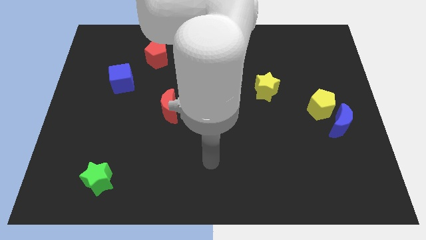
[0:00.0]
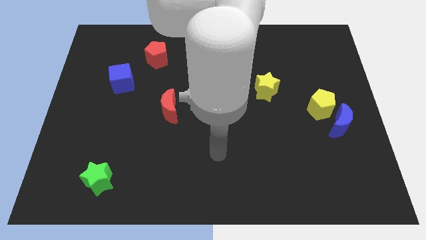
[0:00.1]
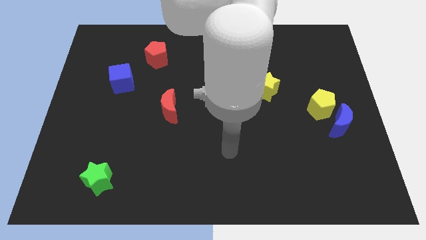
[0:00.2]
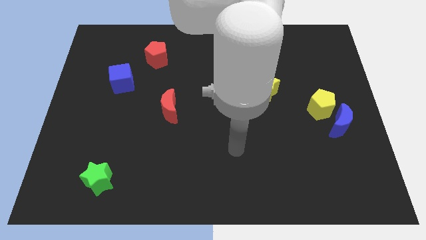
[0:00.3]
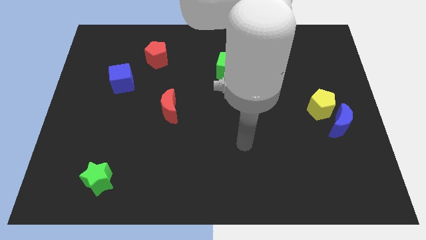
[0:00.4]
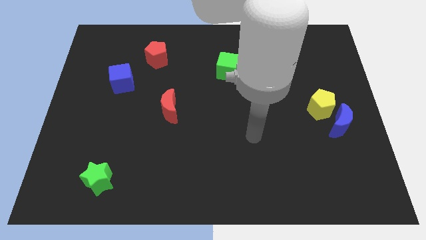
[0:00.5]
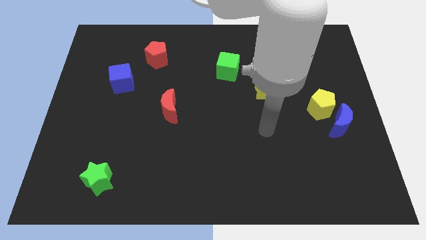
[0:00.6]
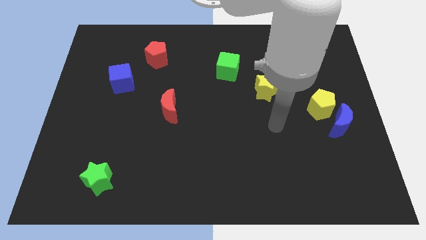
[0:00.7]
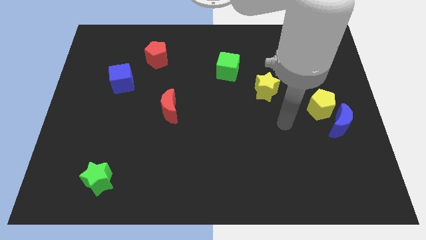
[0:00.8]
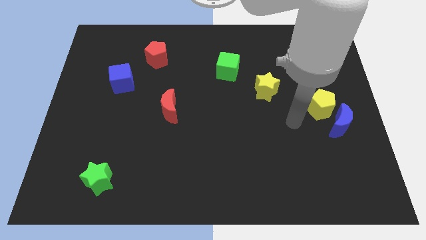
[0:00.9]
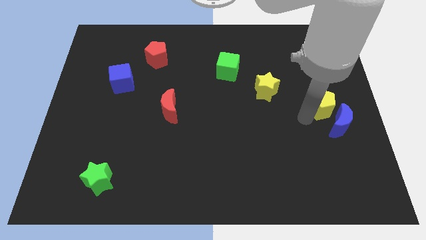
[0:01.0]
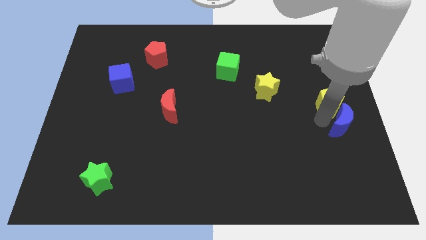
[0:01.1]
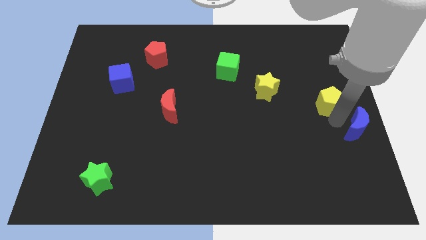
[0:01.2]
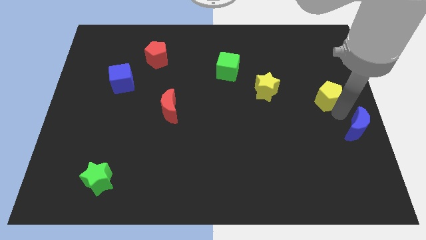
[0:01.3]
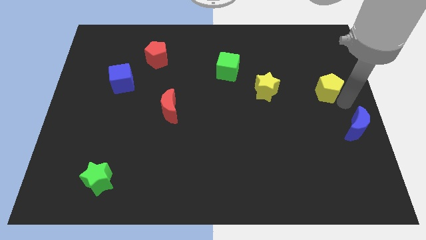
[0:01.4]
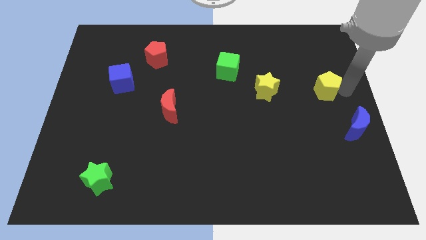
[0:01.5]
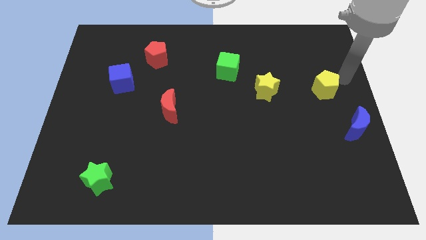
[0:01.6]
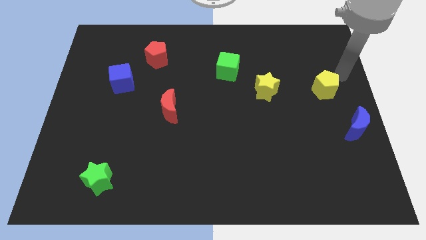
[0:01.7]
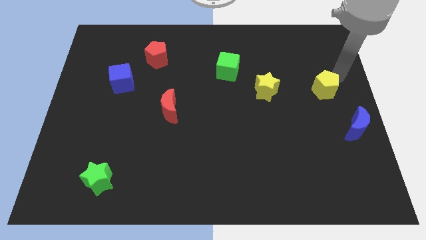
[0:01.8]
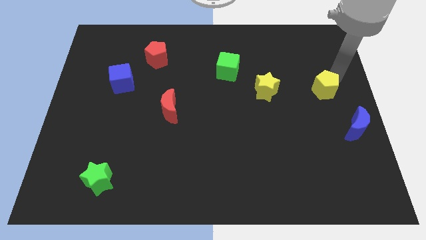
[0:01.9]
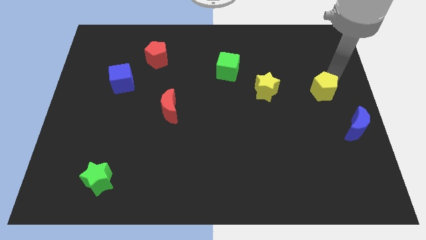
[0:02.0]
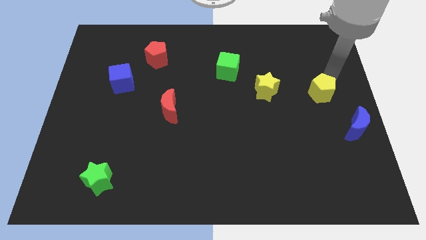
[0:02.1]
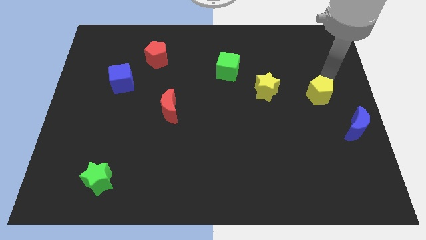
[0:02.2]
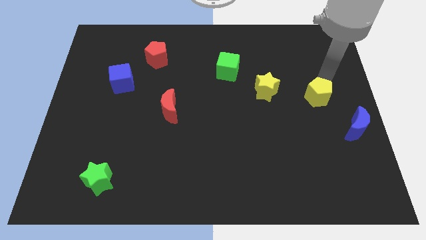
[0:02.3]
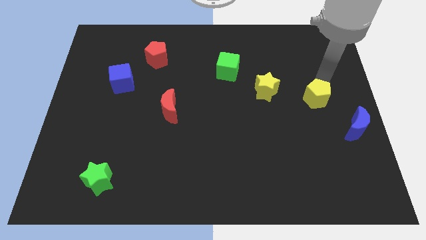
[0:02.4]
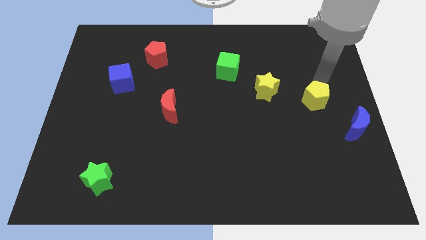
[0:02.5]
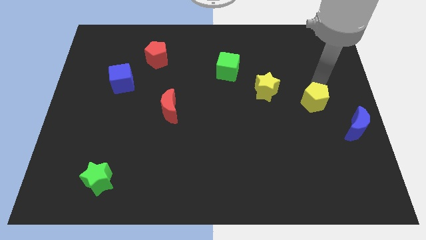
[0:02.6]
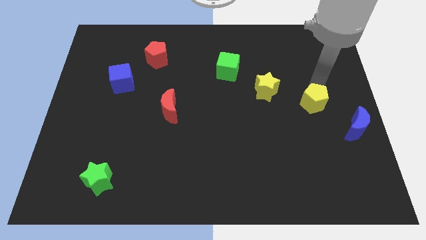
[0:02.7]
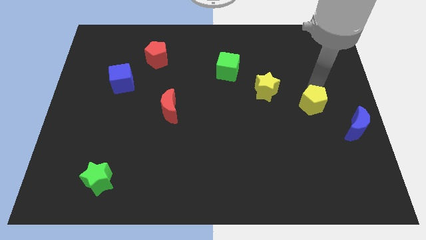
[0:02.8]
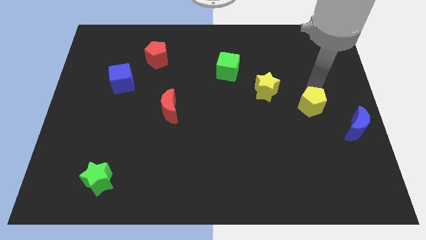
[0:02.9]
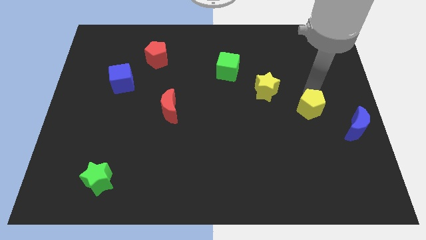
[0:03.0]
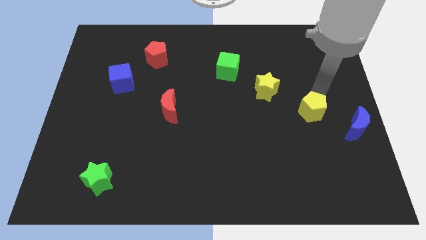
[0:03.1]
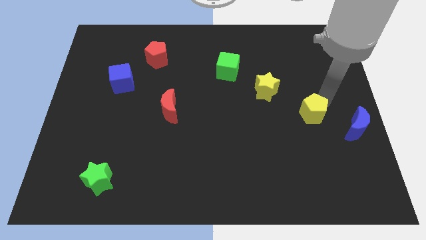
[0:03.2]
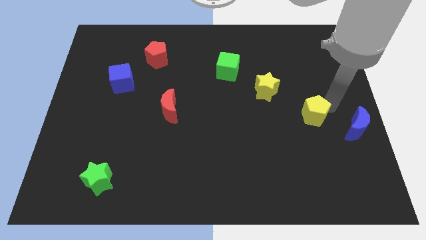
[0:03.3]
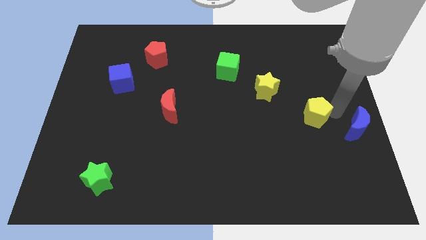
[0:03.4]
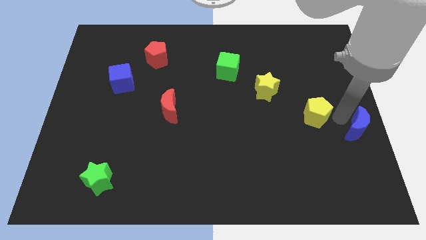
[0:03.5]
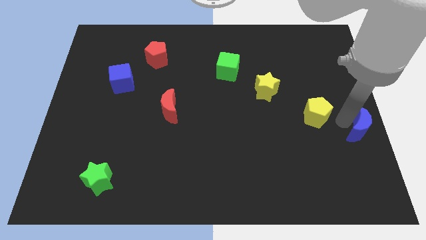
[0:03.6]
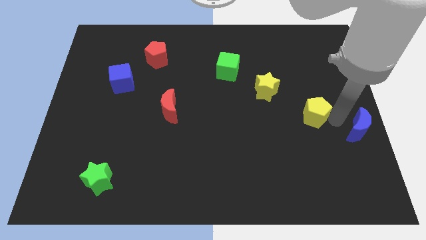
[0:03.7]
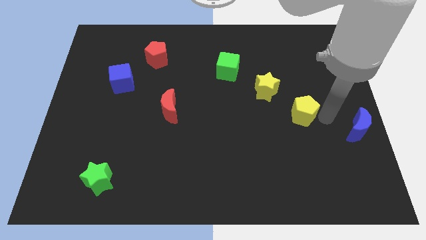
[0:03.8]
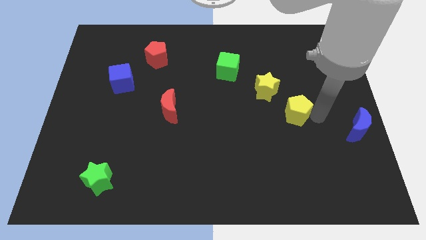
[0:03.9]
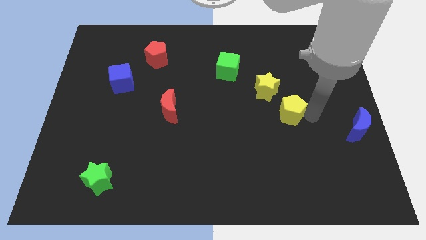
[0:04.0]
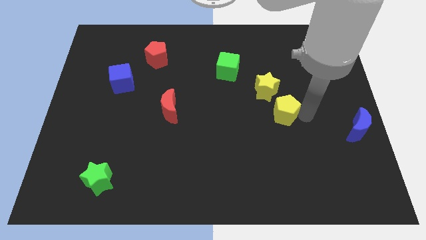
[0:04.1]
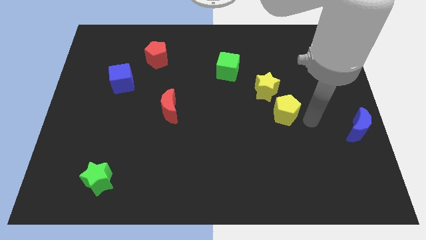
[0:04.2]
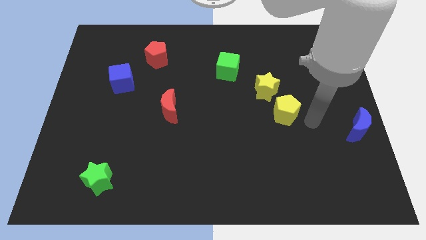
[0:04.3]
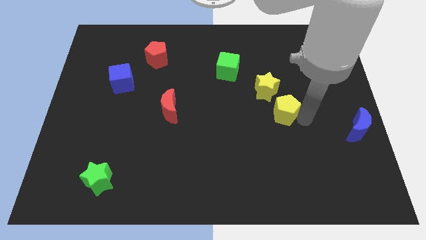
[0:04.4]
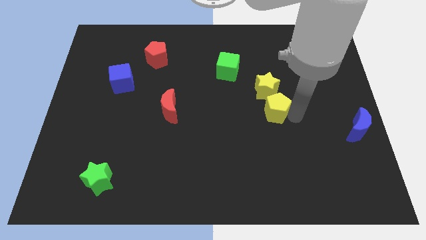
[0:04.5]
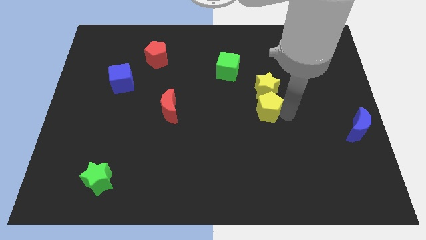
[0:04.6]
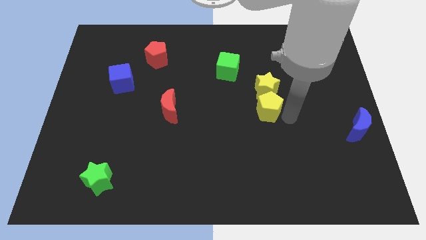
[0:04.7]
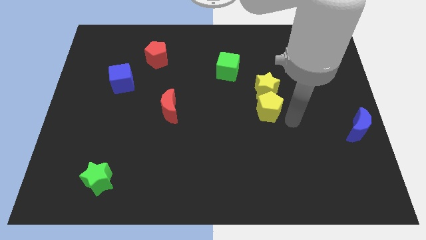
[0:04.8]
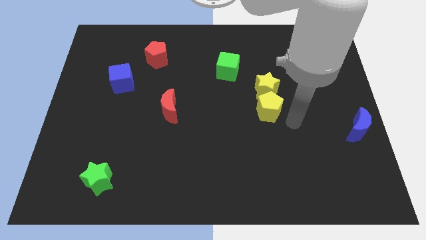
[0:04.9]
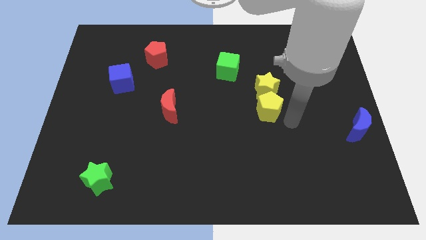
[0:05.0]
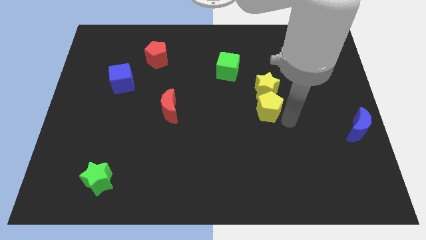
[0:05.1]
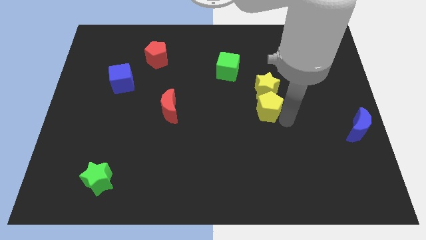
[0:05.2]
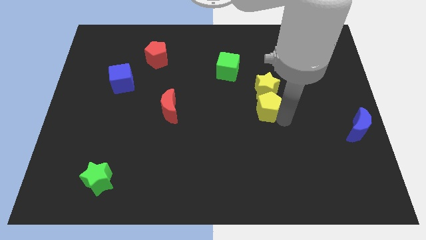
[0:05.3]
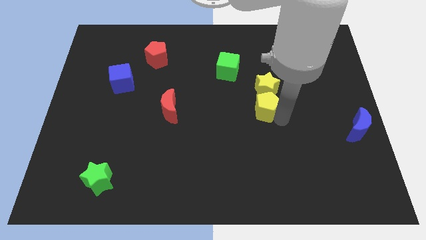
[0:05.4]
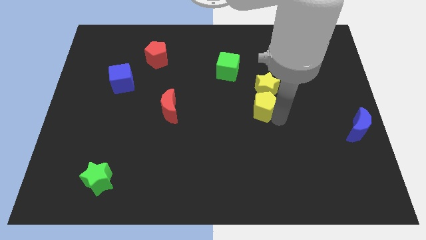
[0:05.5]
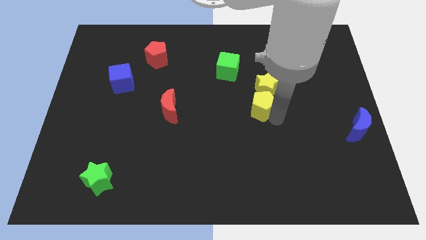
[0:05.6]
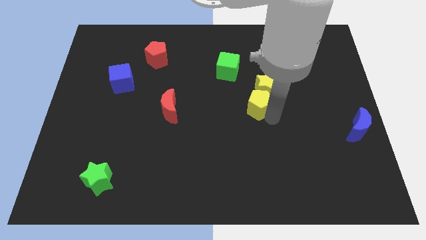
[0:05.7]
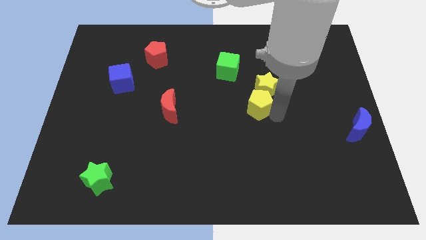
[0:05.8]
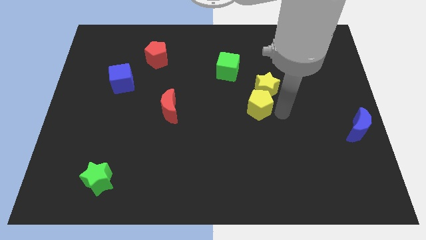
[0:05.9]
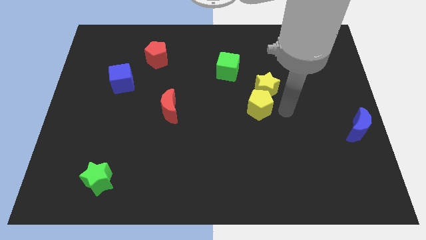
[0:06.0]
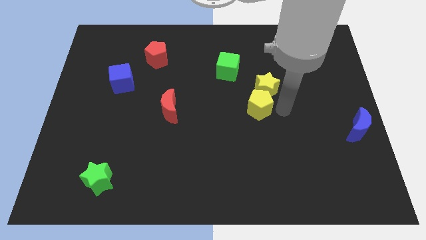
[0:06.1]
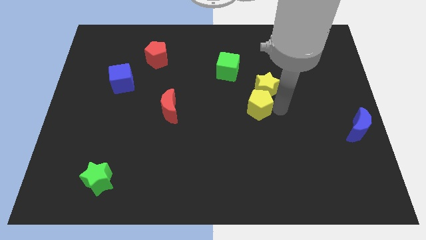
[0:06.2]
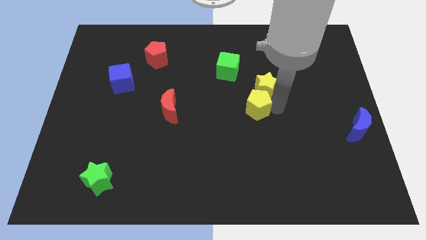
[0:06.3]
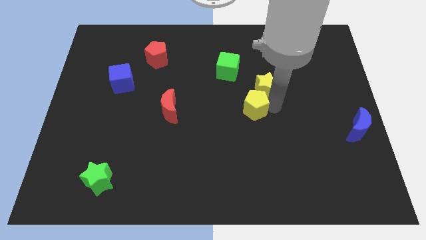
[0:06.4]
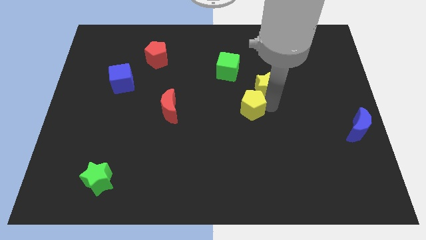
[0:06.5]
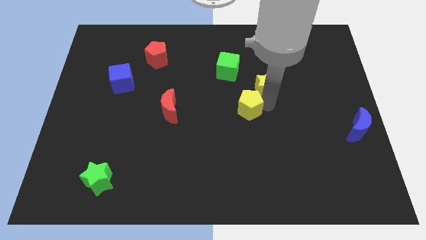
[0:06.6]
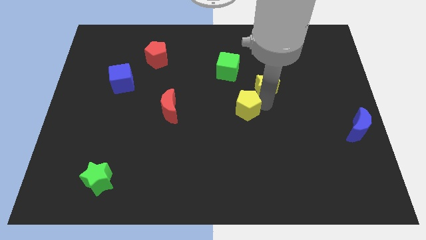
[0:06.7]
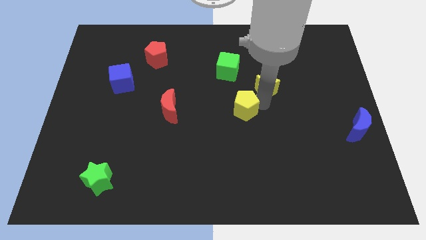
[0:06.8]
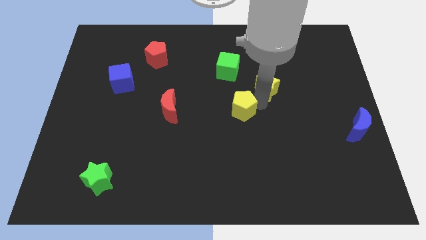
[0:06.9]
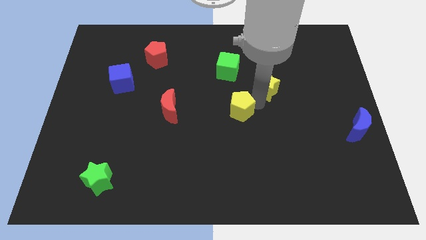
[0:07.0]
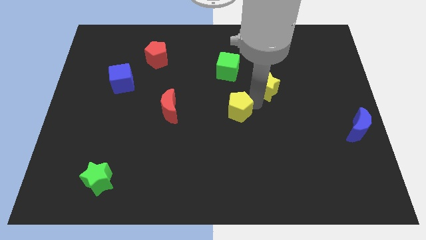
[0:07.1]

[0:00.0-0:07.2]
move the yellow pentagon to the right side of the red moon
